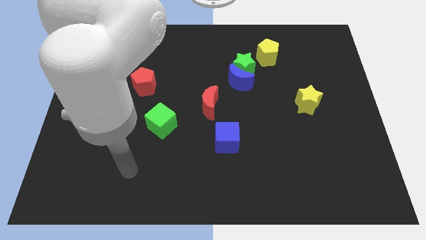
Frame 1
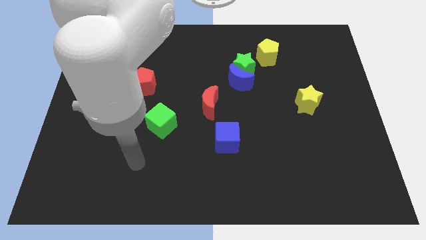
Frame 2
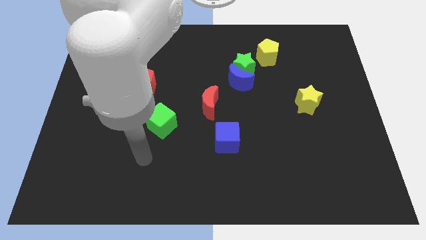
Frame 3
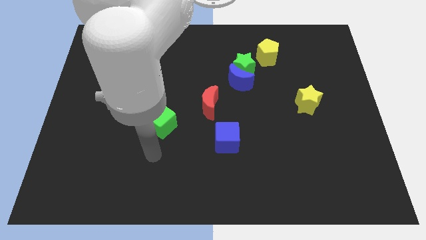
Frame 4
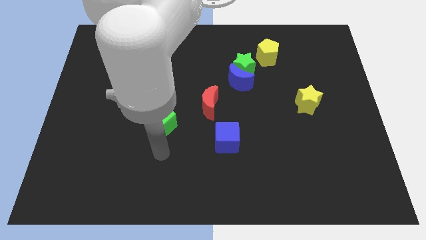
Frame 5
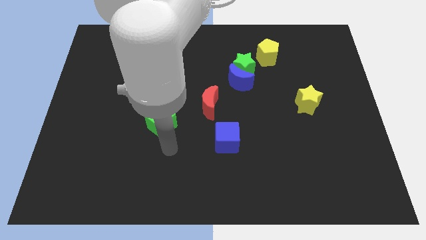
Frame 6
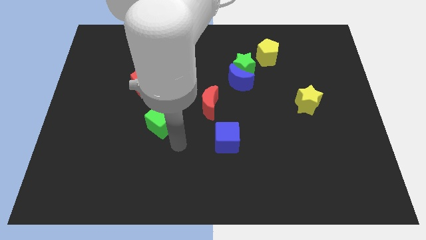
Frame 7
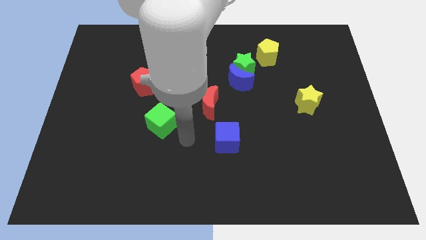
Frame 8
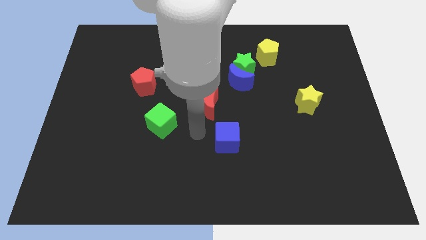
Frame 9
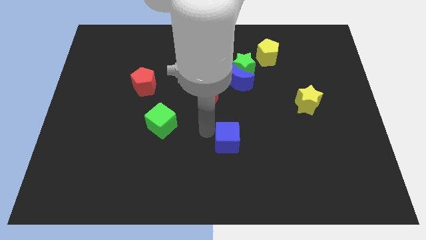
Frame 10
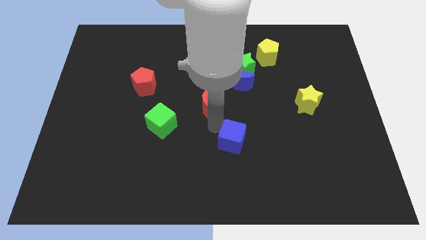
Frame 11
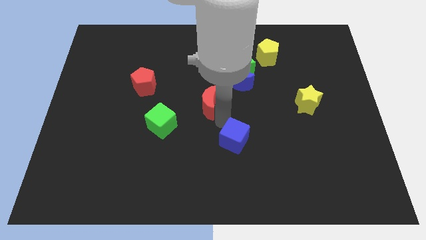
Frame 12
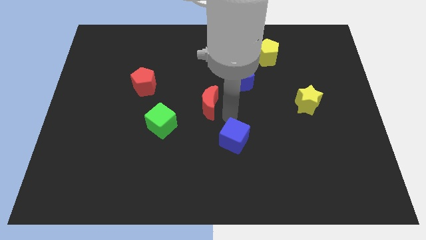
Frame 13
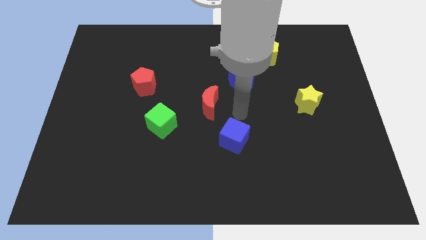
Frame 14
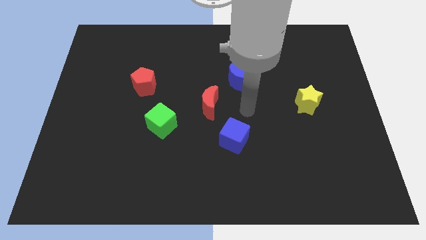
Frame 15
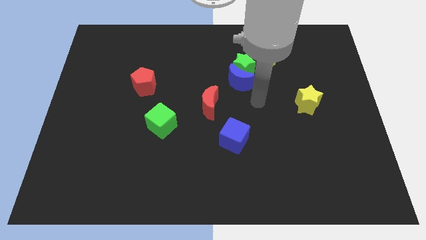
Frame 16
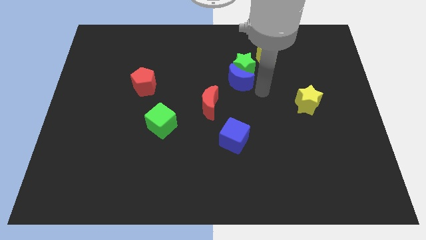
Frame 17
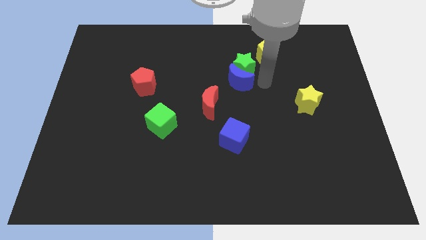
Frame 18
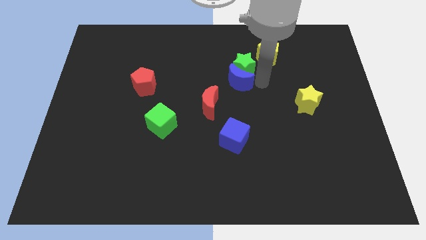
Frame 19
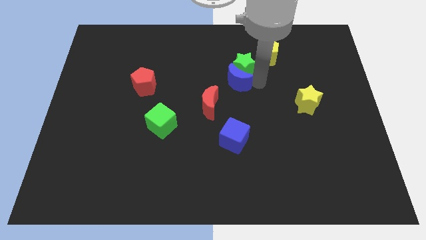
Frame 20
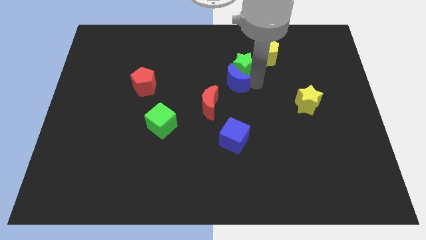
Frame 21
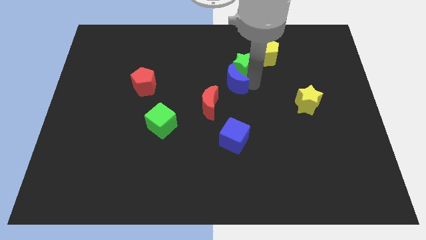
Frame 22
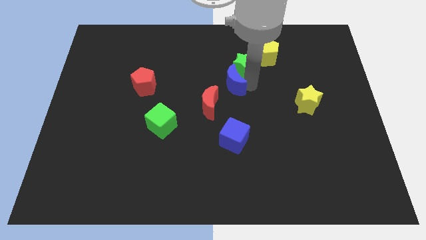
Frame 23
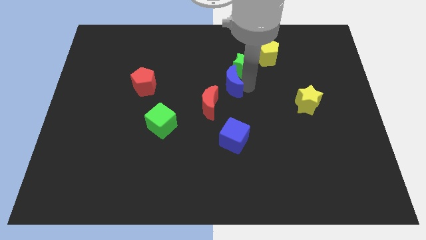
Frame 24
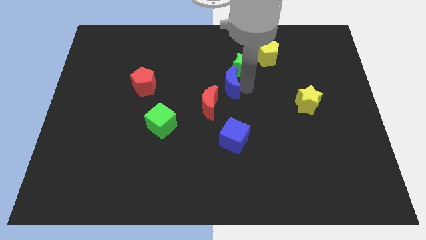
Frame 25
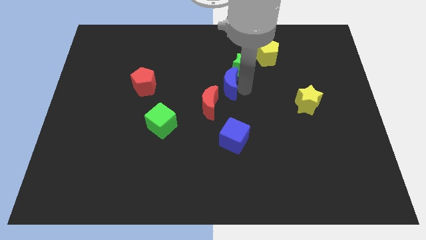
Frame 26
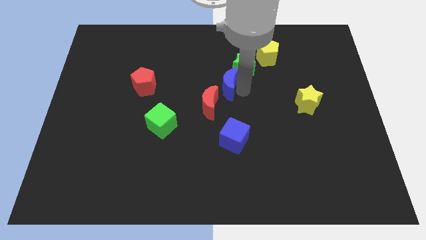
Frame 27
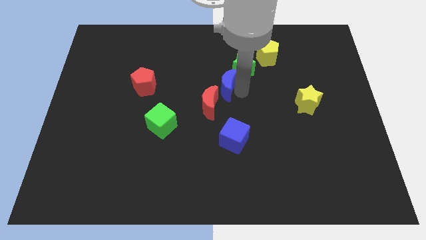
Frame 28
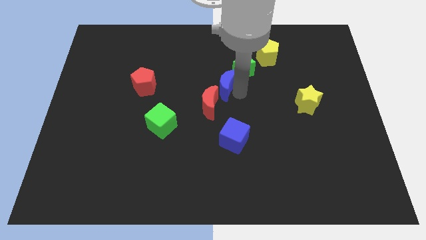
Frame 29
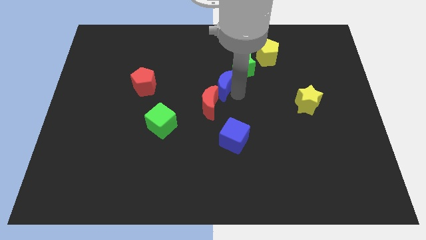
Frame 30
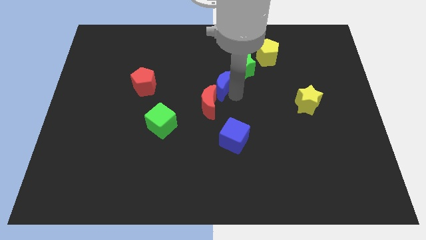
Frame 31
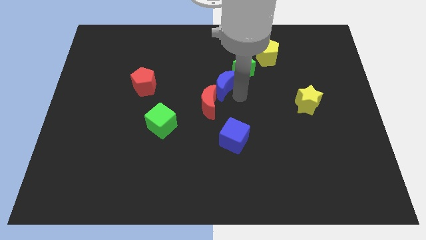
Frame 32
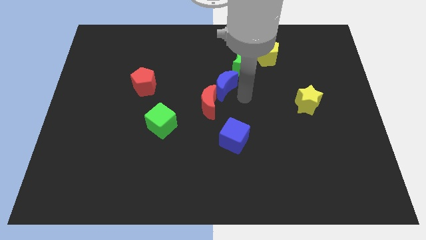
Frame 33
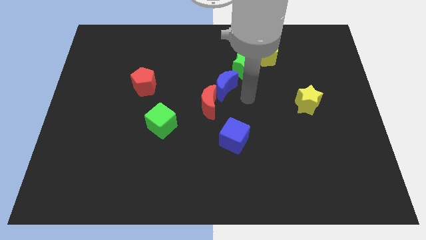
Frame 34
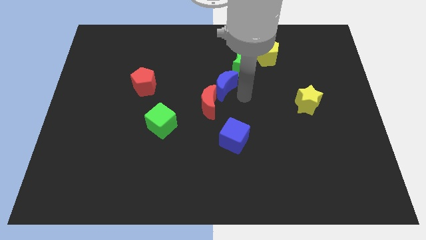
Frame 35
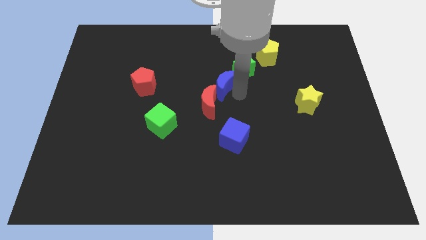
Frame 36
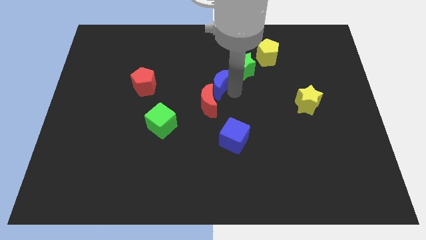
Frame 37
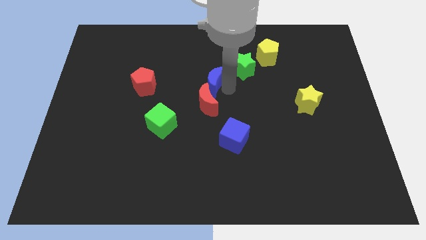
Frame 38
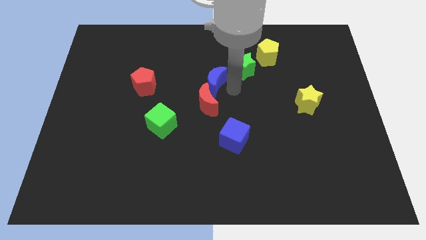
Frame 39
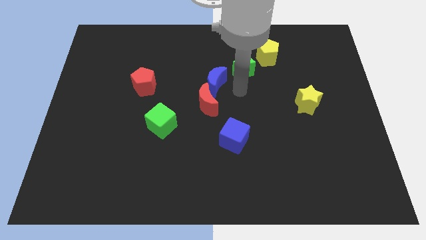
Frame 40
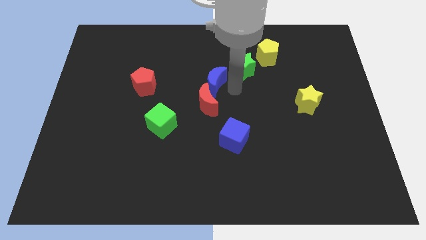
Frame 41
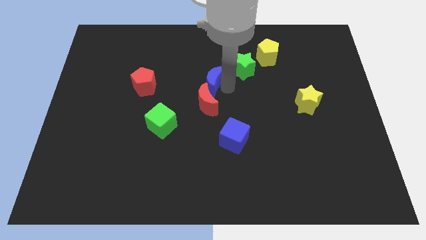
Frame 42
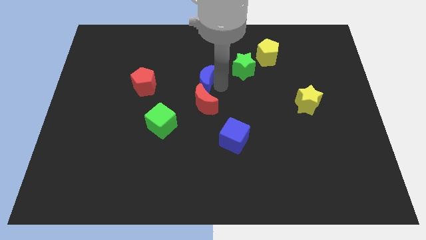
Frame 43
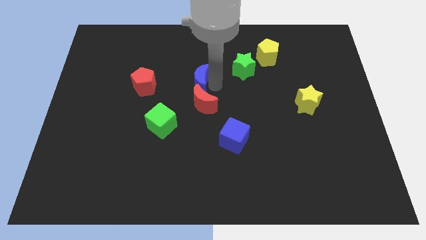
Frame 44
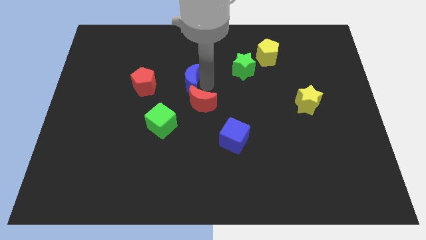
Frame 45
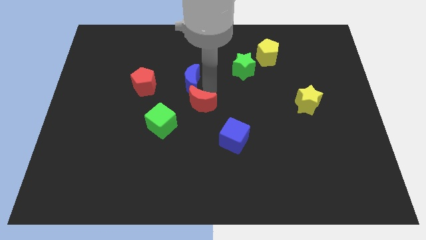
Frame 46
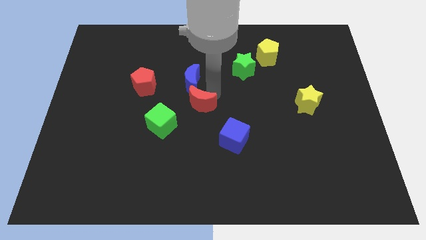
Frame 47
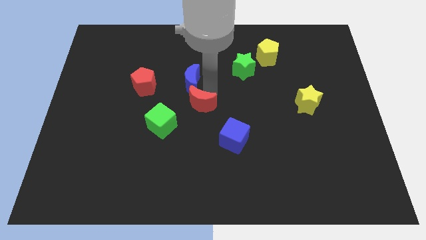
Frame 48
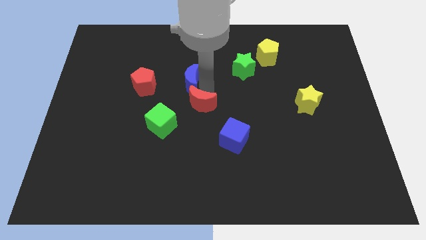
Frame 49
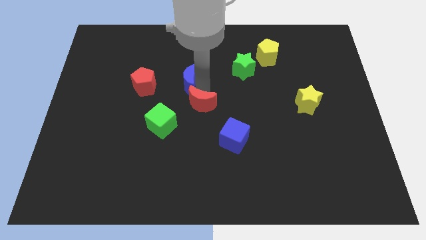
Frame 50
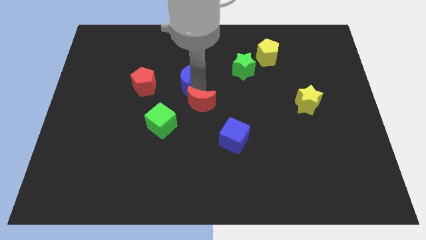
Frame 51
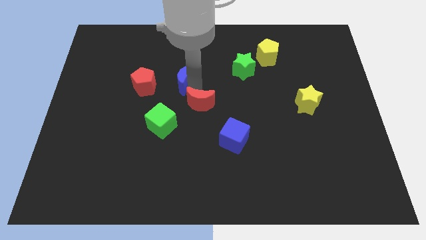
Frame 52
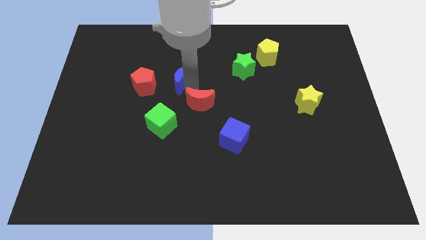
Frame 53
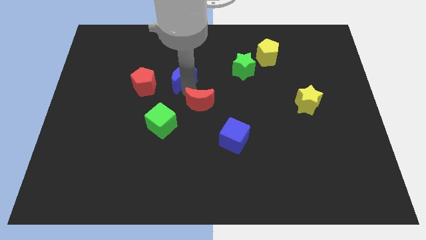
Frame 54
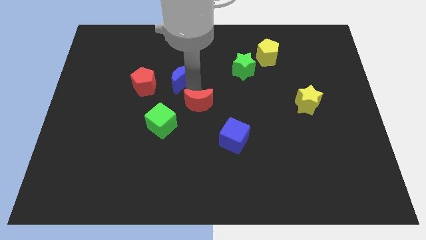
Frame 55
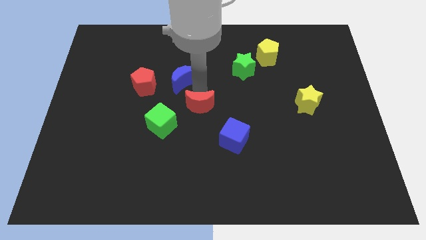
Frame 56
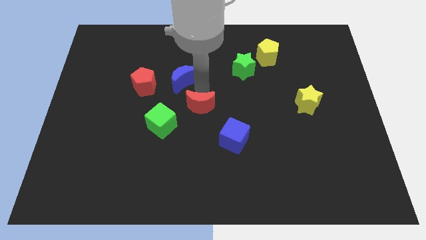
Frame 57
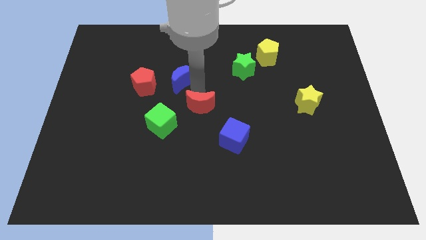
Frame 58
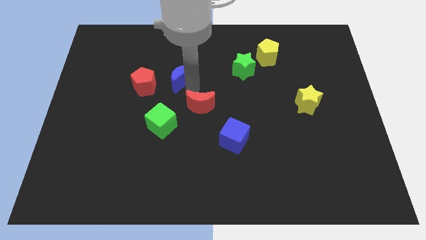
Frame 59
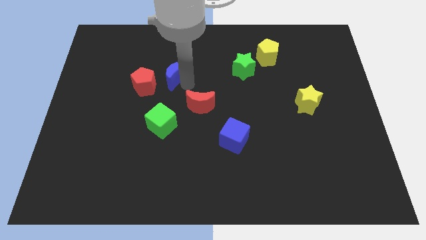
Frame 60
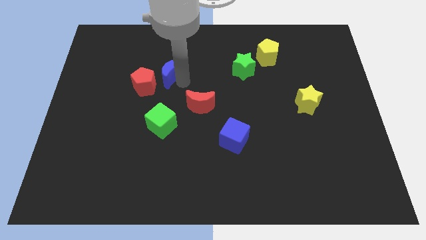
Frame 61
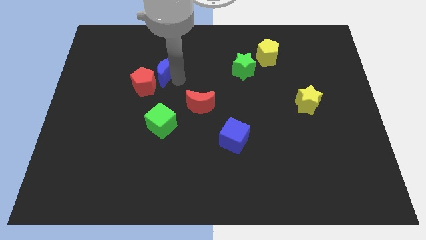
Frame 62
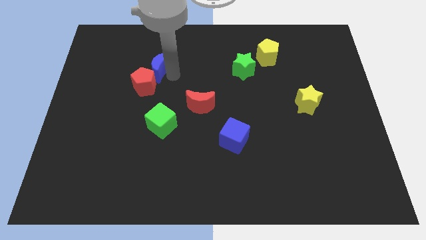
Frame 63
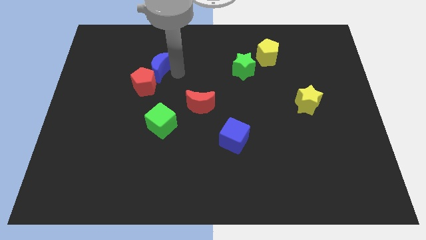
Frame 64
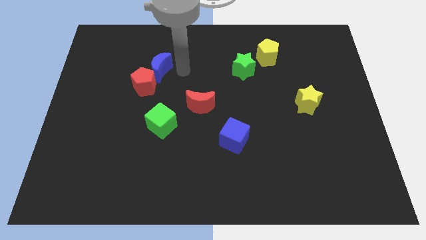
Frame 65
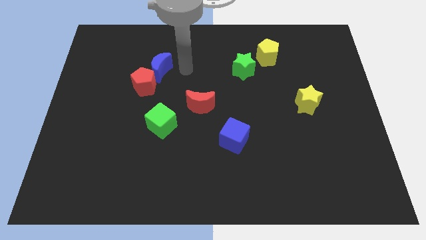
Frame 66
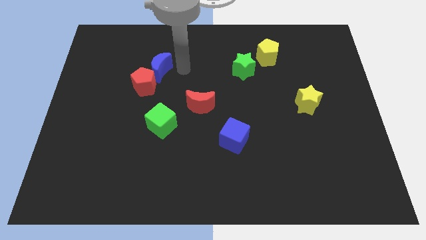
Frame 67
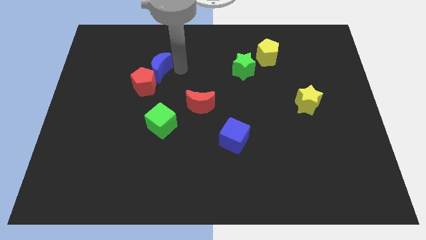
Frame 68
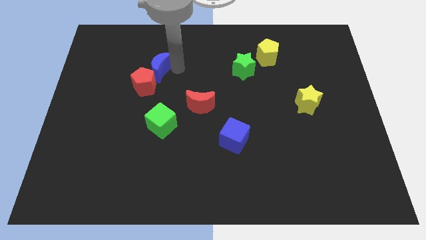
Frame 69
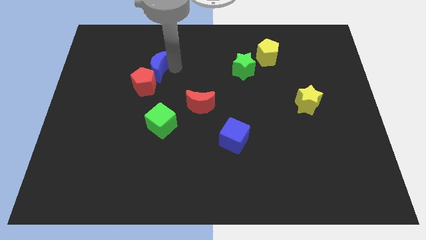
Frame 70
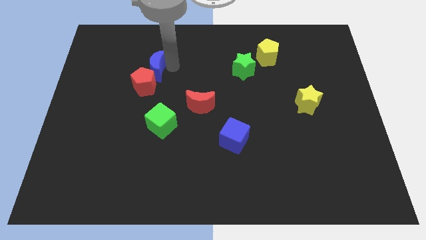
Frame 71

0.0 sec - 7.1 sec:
move the blue moon left

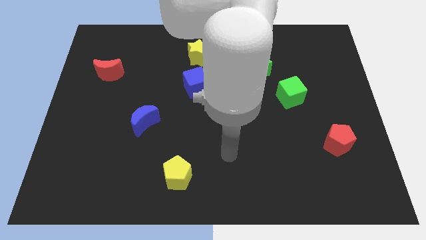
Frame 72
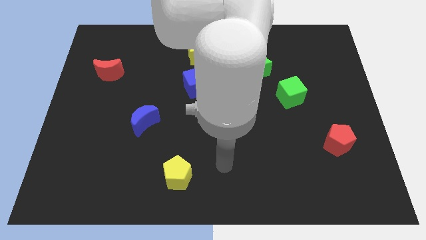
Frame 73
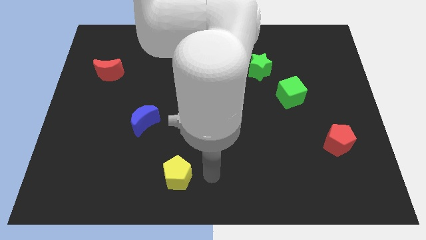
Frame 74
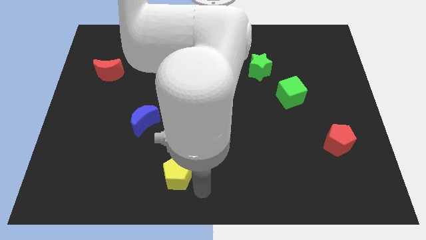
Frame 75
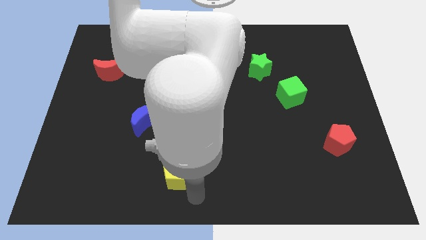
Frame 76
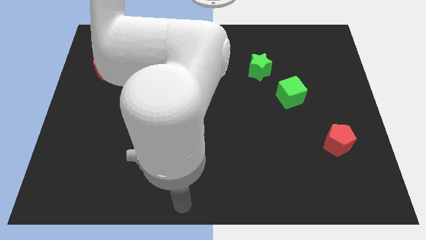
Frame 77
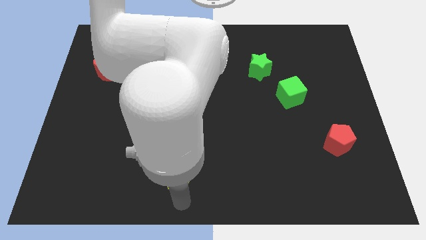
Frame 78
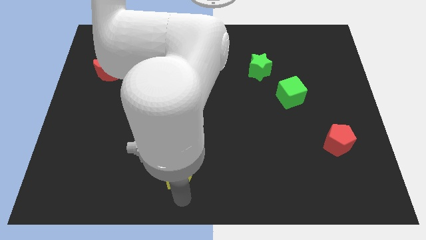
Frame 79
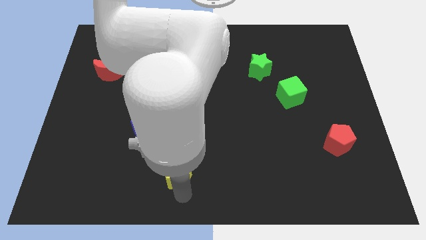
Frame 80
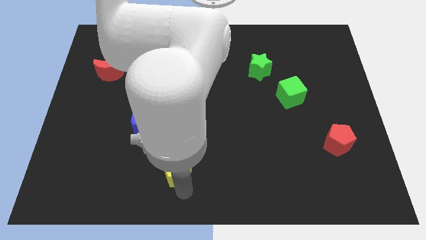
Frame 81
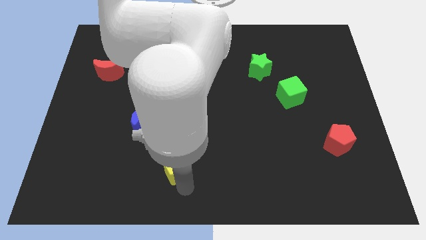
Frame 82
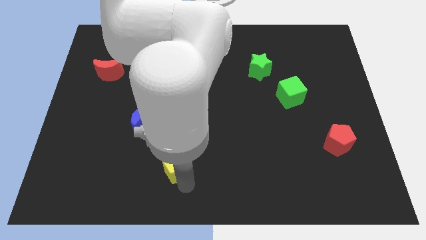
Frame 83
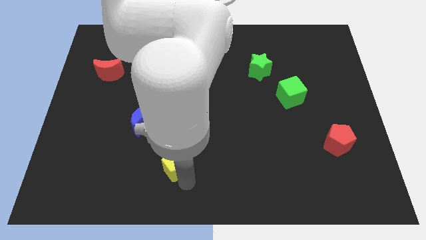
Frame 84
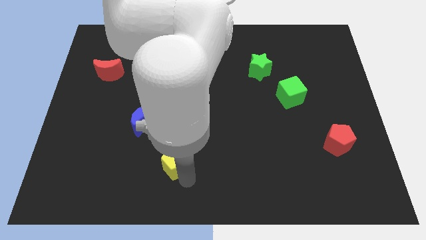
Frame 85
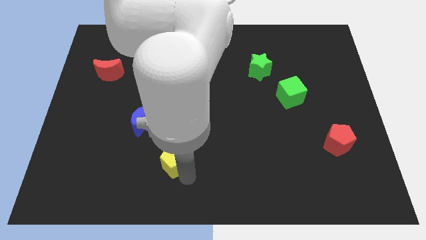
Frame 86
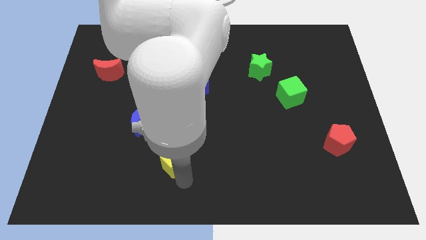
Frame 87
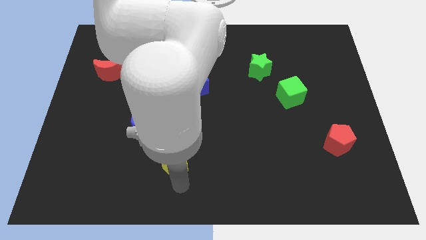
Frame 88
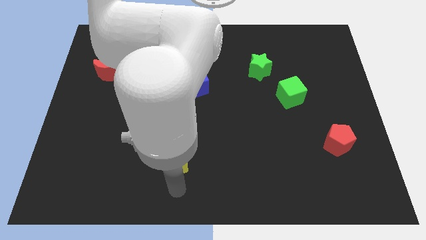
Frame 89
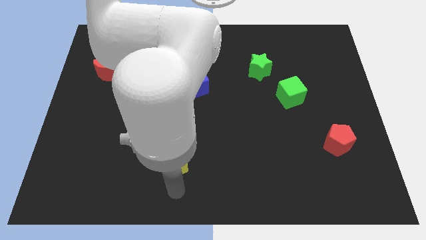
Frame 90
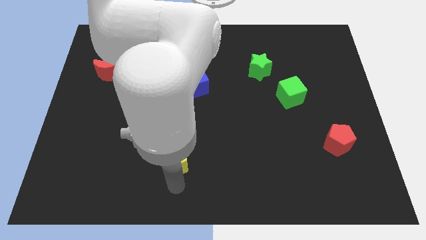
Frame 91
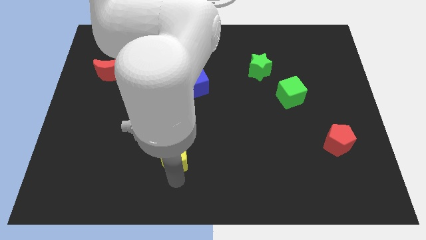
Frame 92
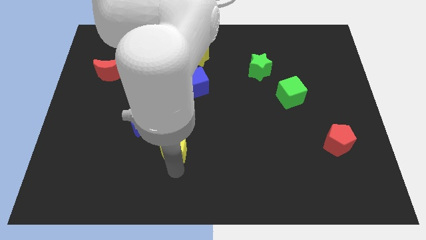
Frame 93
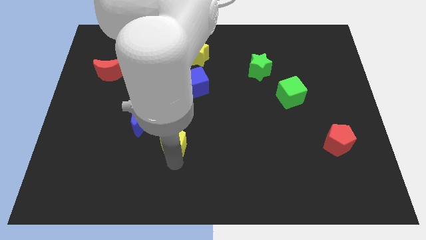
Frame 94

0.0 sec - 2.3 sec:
push the yellow pentagon upwards a little bit
